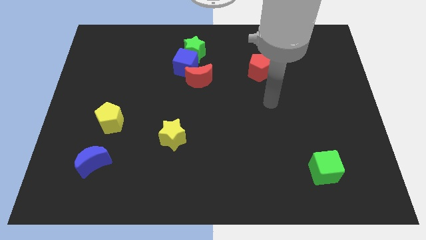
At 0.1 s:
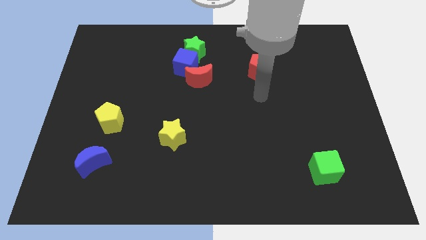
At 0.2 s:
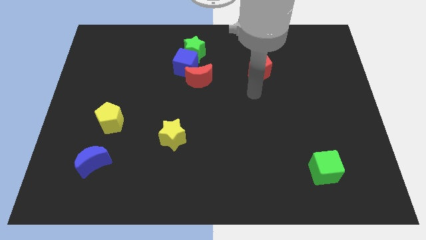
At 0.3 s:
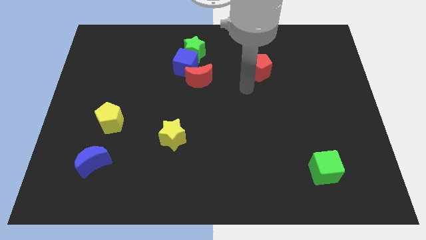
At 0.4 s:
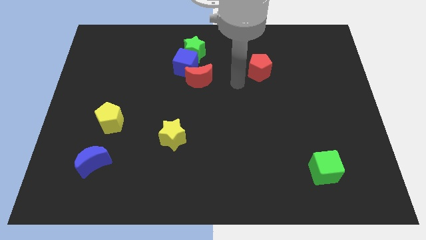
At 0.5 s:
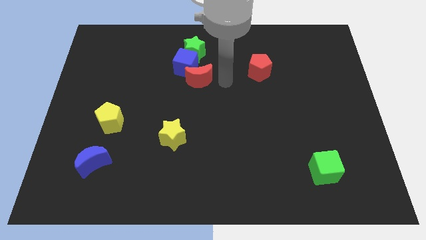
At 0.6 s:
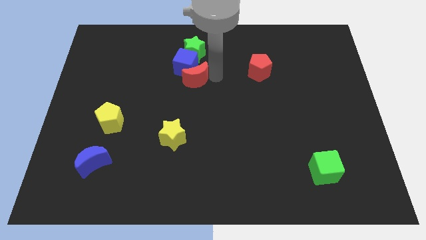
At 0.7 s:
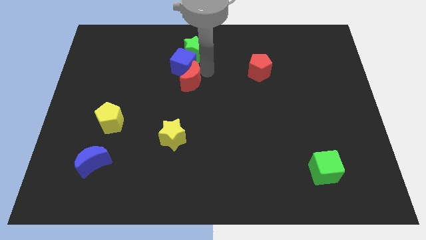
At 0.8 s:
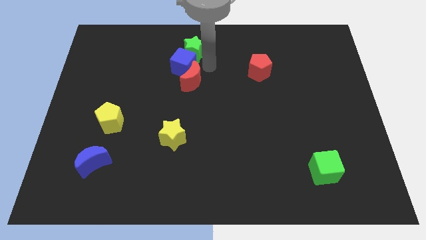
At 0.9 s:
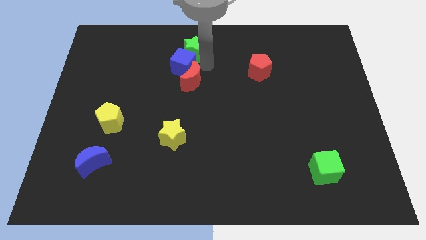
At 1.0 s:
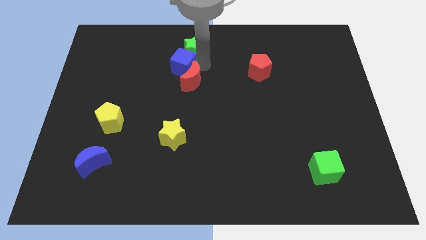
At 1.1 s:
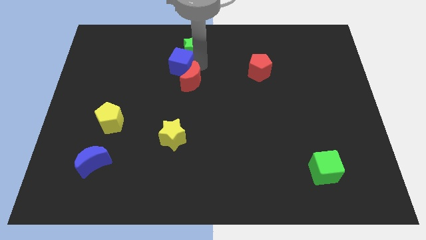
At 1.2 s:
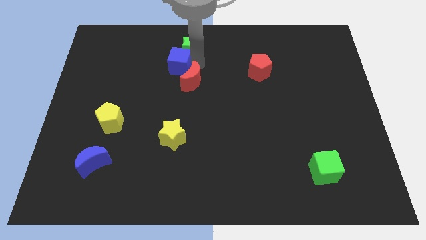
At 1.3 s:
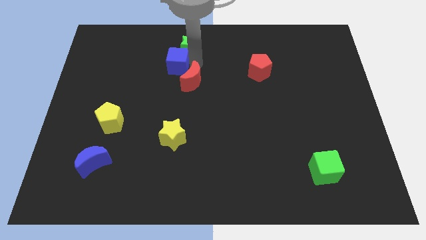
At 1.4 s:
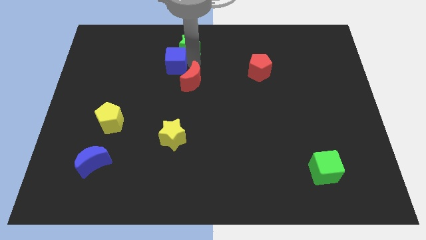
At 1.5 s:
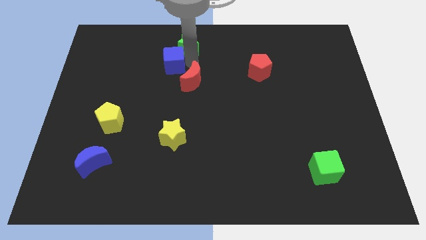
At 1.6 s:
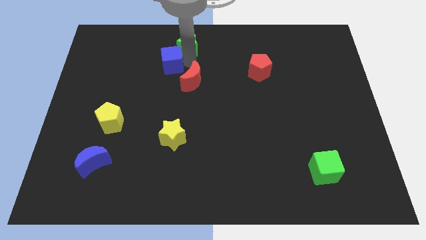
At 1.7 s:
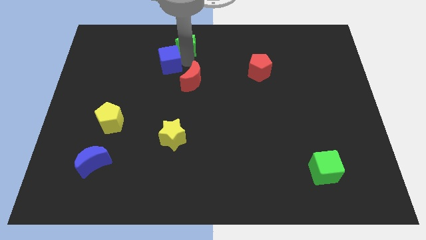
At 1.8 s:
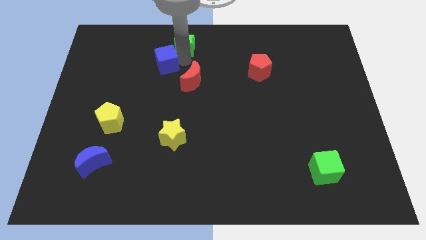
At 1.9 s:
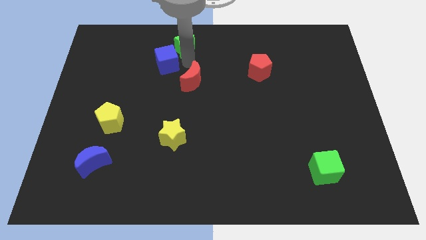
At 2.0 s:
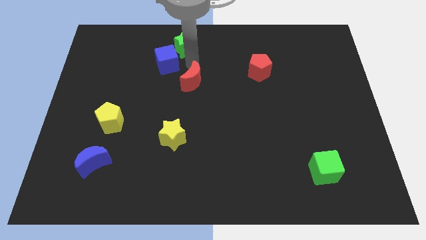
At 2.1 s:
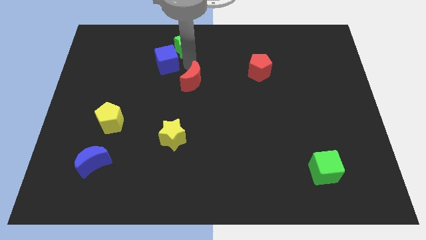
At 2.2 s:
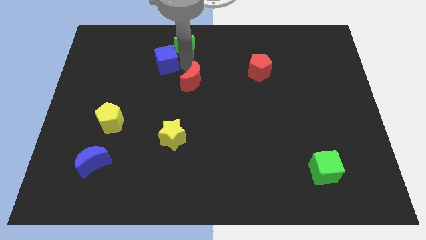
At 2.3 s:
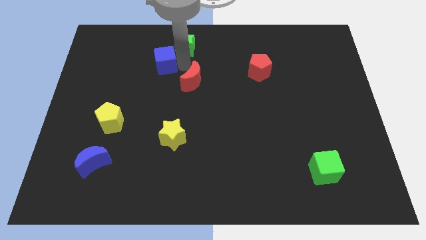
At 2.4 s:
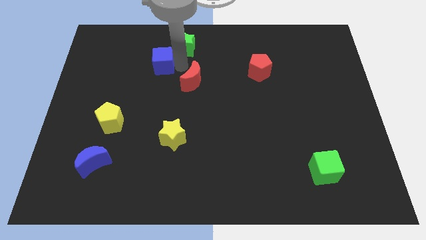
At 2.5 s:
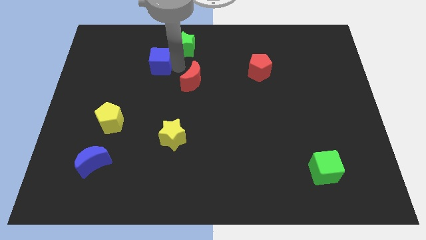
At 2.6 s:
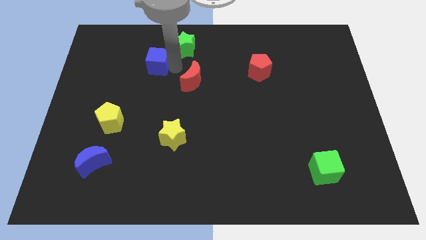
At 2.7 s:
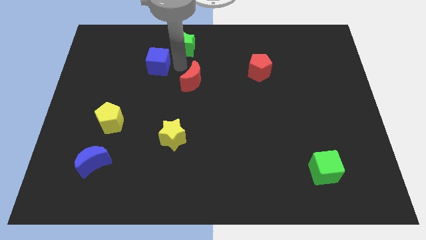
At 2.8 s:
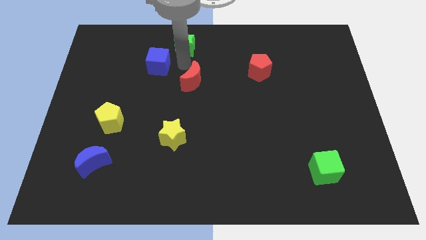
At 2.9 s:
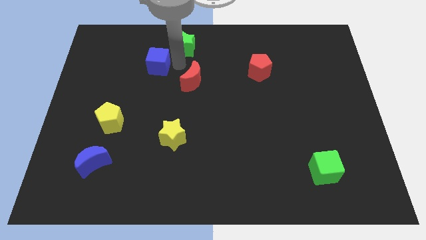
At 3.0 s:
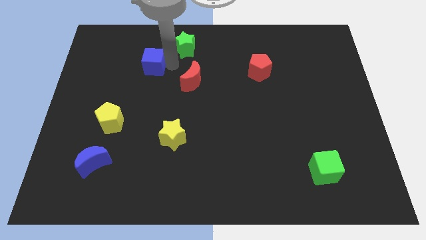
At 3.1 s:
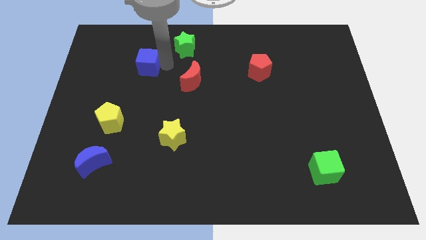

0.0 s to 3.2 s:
pull the blue cube apart from the green star and red moon

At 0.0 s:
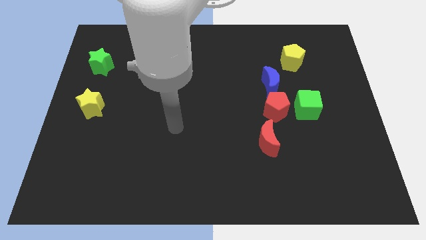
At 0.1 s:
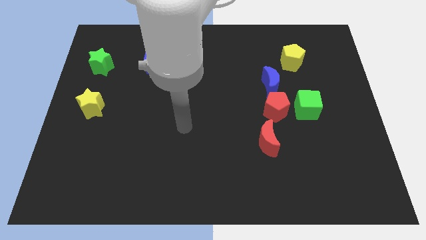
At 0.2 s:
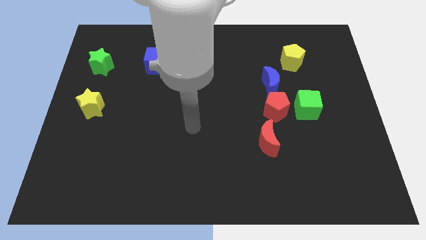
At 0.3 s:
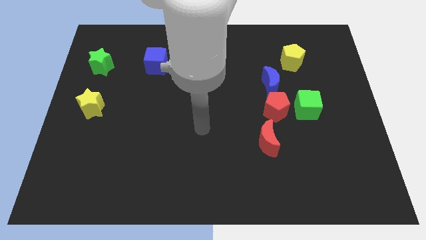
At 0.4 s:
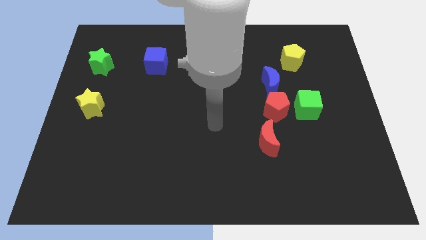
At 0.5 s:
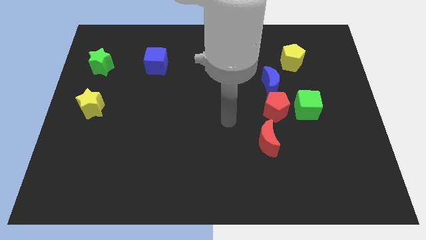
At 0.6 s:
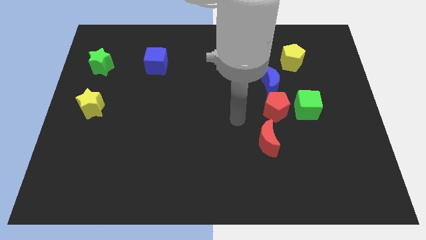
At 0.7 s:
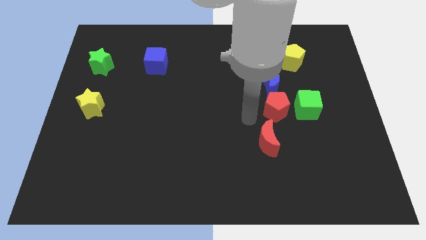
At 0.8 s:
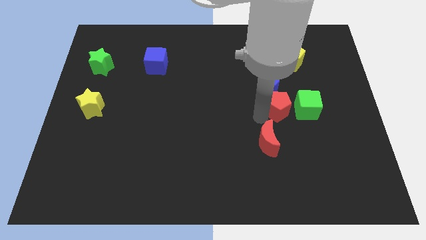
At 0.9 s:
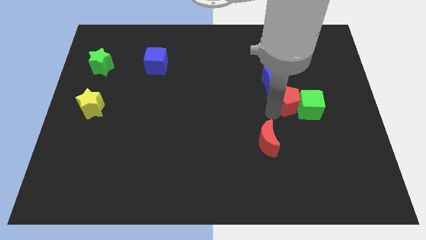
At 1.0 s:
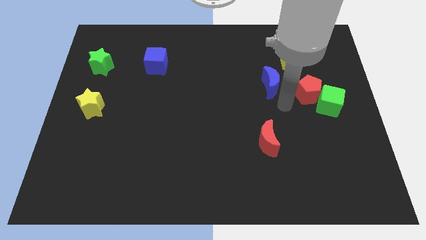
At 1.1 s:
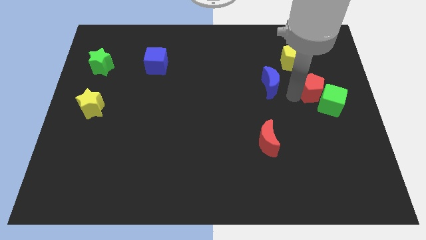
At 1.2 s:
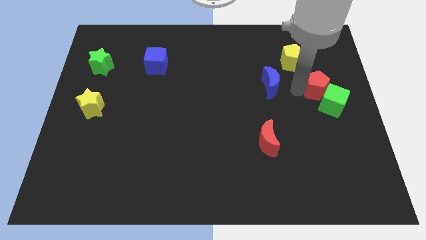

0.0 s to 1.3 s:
pull the blue moon apart from the red pentagon

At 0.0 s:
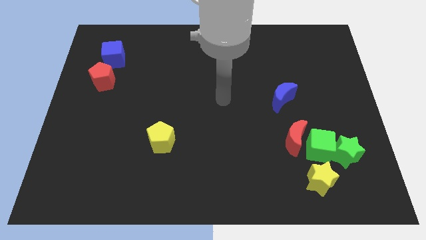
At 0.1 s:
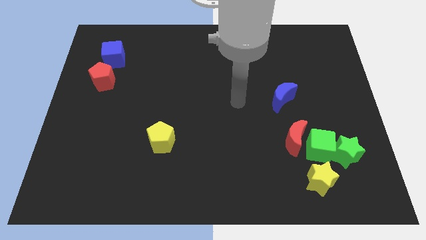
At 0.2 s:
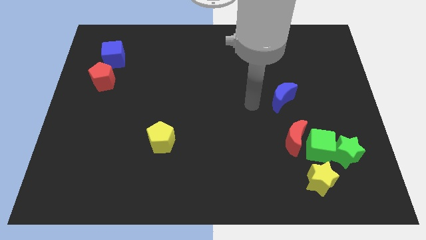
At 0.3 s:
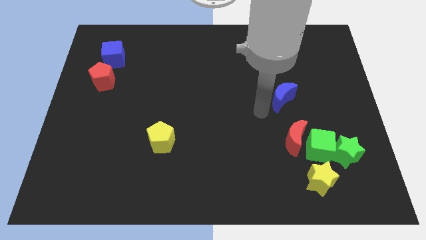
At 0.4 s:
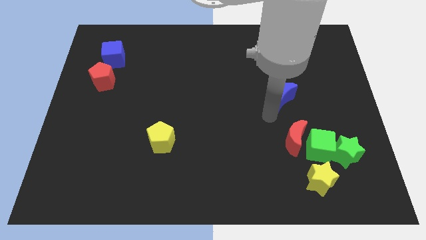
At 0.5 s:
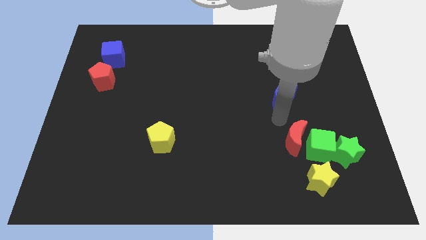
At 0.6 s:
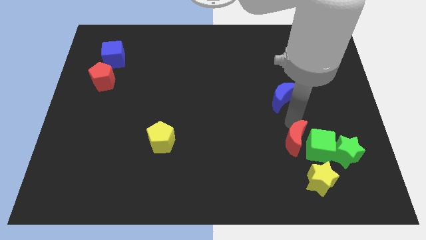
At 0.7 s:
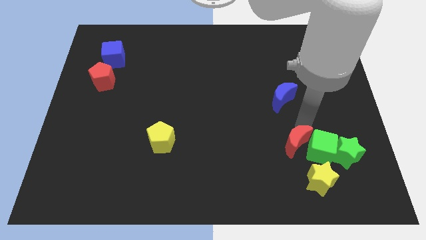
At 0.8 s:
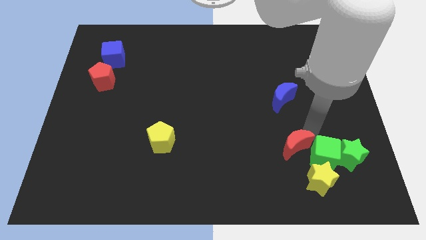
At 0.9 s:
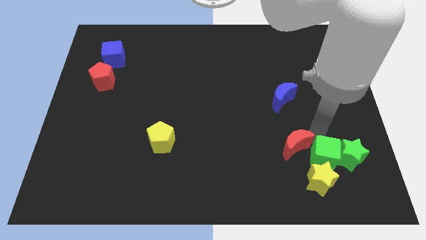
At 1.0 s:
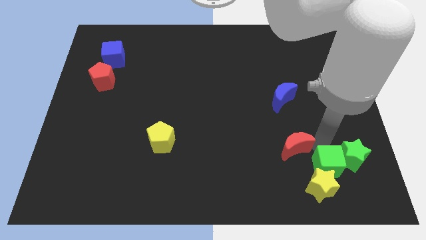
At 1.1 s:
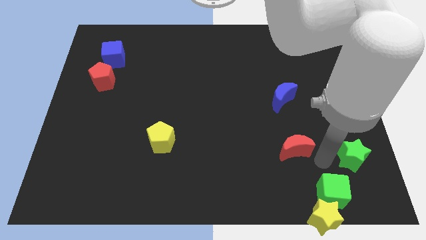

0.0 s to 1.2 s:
pull the red moon apart from the green cube

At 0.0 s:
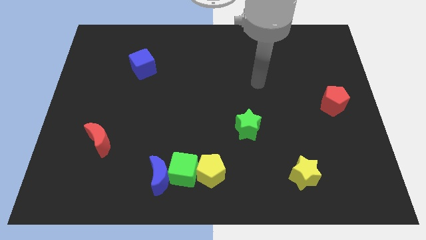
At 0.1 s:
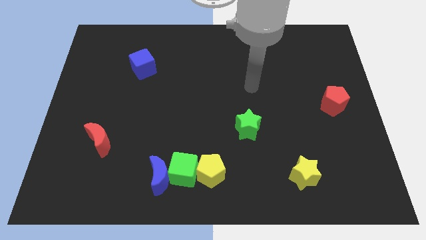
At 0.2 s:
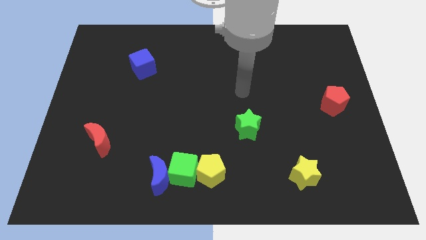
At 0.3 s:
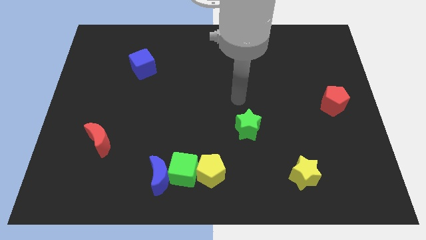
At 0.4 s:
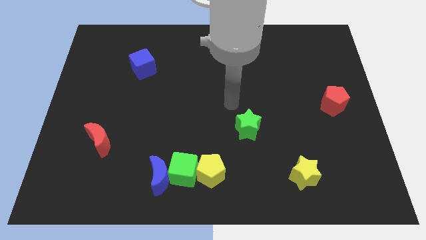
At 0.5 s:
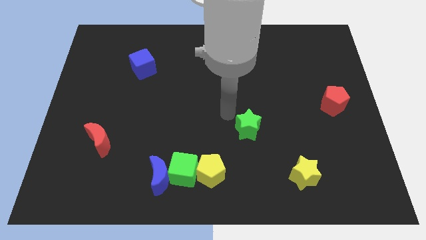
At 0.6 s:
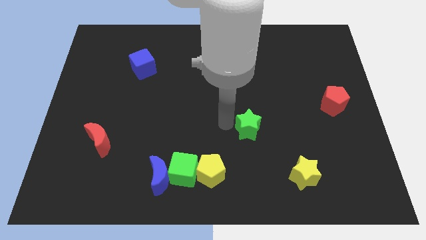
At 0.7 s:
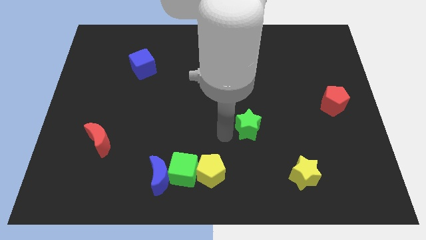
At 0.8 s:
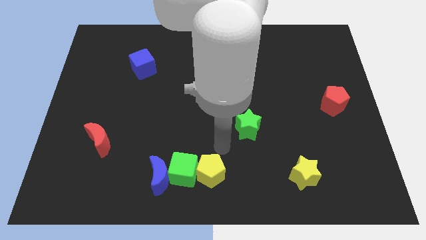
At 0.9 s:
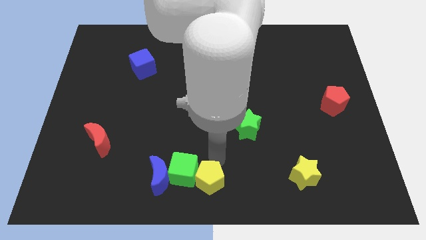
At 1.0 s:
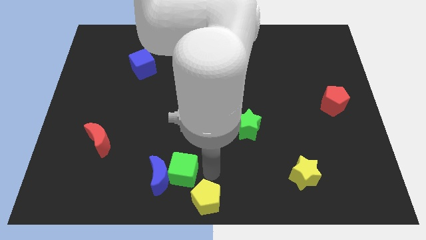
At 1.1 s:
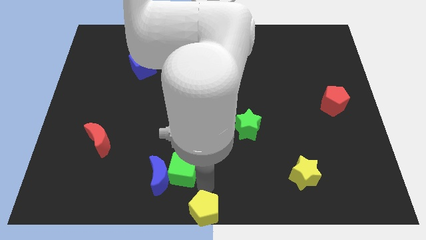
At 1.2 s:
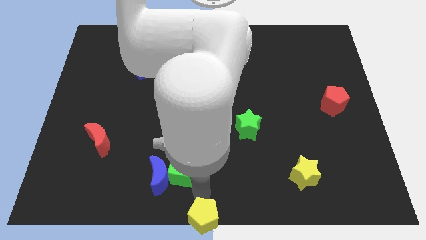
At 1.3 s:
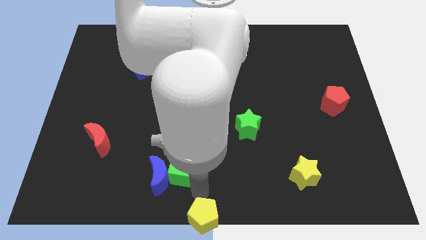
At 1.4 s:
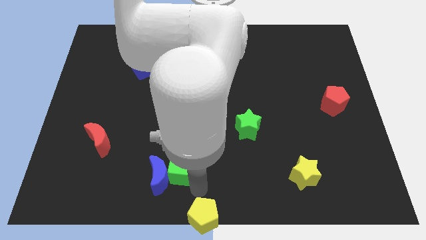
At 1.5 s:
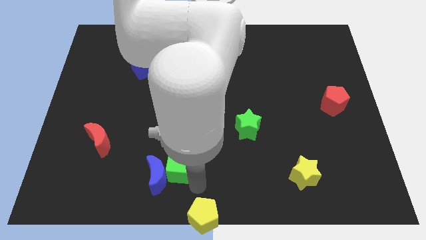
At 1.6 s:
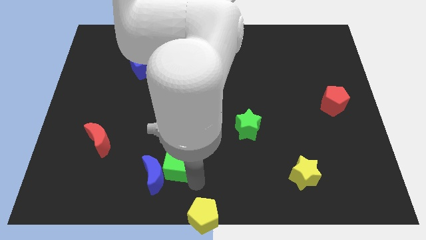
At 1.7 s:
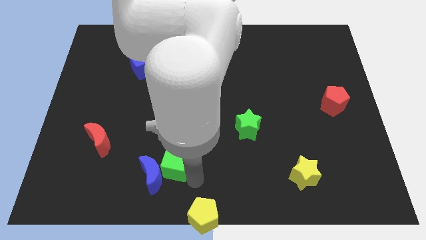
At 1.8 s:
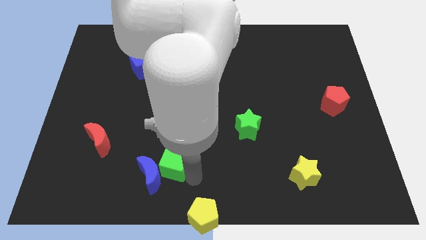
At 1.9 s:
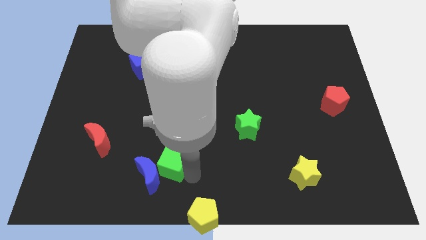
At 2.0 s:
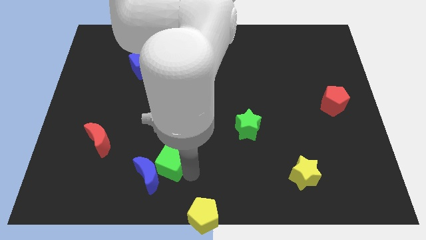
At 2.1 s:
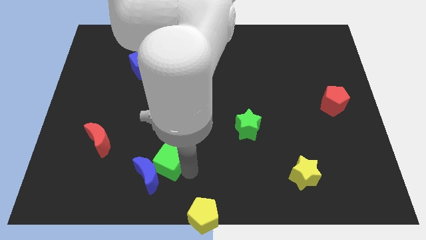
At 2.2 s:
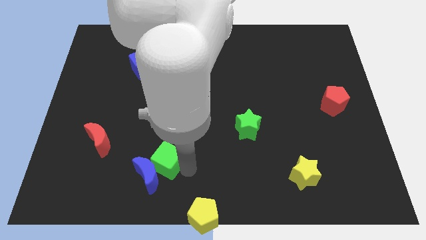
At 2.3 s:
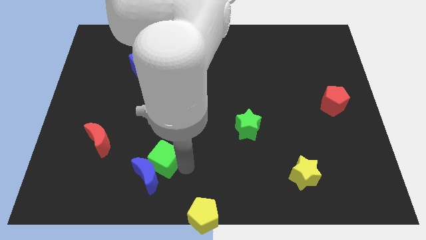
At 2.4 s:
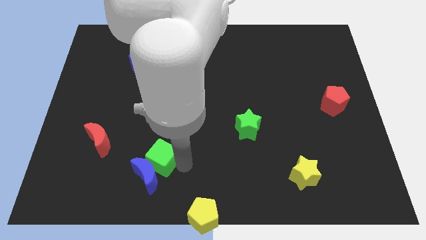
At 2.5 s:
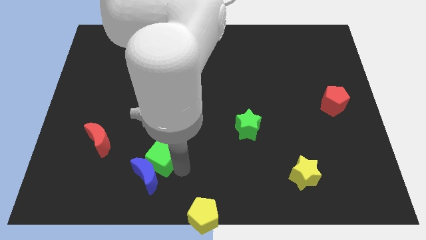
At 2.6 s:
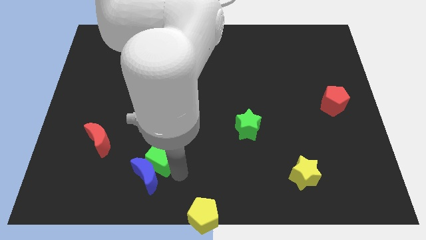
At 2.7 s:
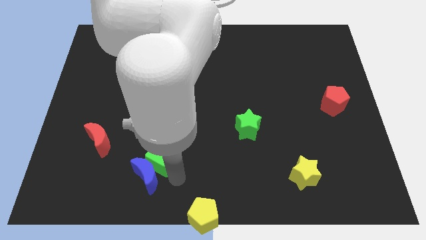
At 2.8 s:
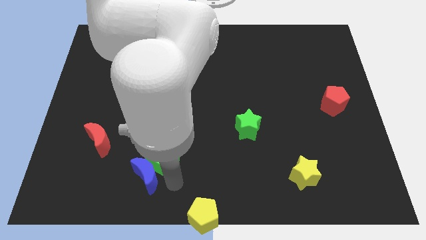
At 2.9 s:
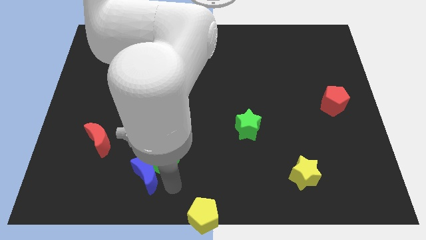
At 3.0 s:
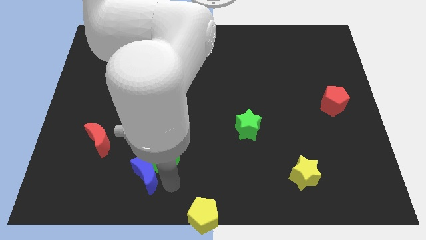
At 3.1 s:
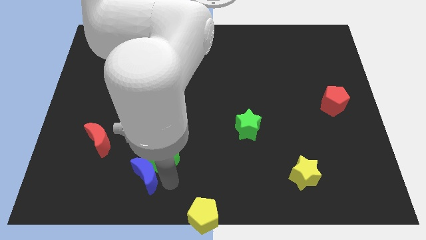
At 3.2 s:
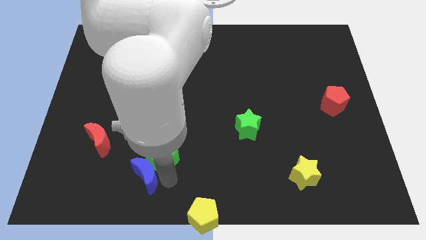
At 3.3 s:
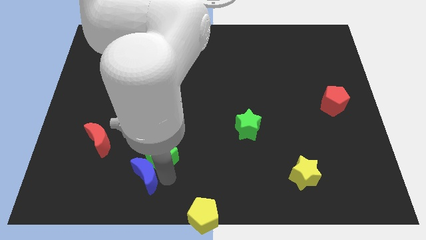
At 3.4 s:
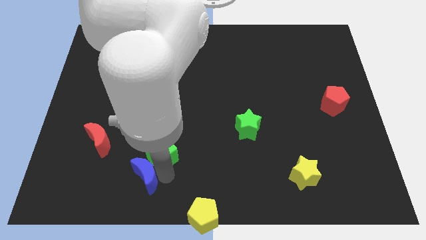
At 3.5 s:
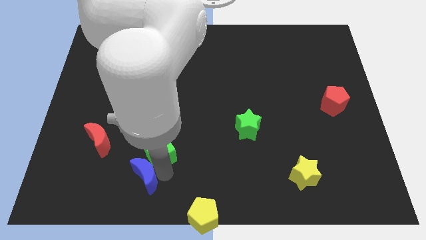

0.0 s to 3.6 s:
pull the green cube apart from the blue moon and yellow pentagon
